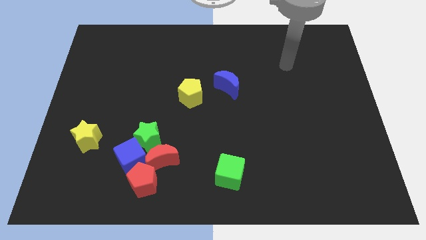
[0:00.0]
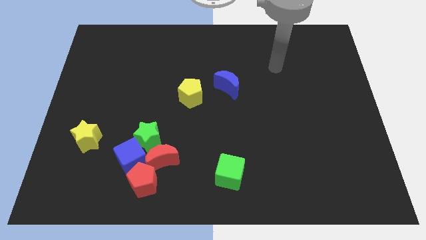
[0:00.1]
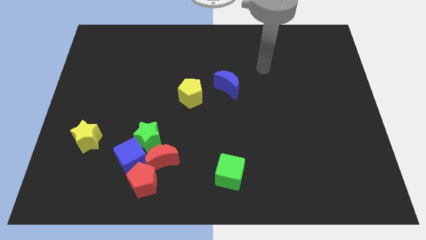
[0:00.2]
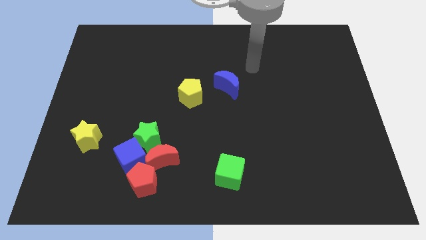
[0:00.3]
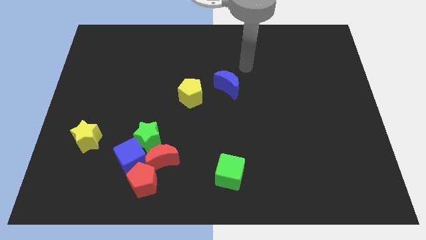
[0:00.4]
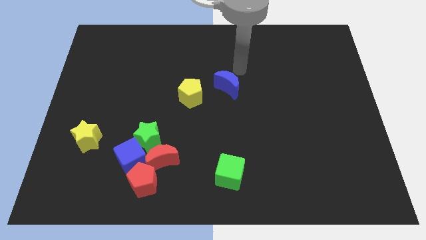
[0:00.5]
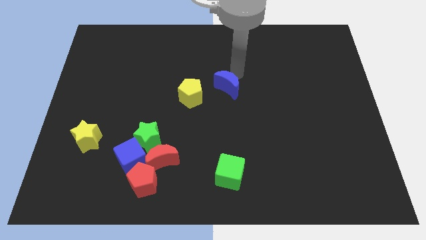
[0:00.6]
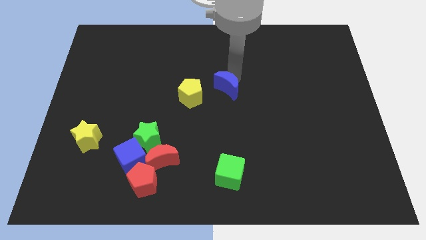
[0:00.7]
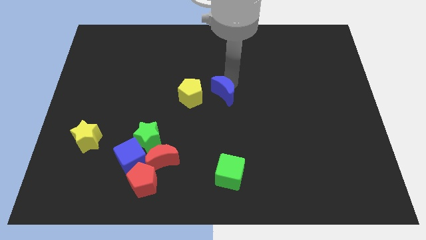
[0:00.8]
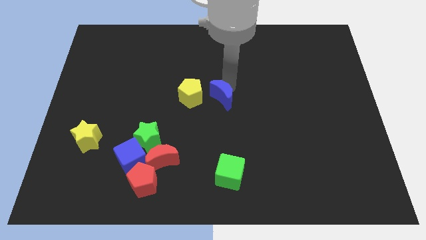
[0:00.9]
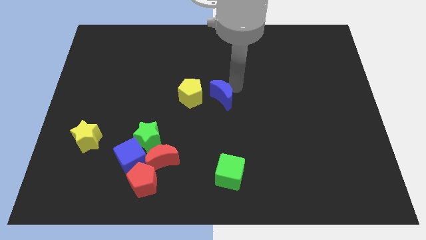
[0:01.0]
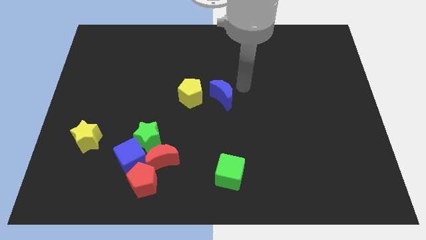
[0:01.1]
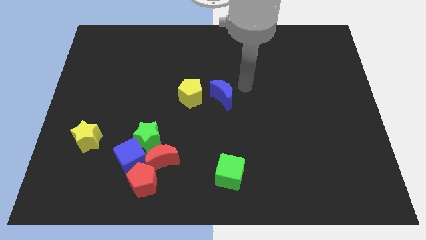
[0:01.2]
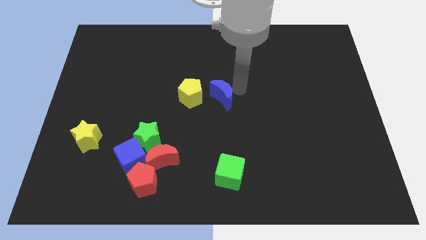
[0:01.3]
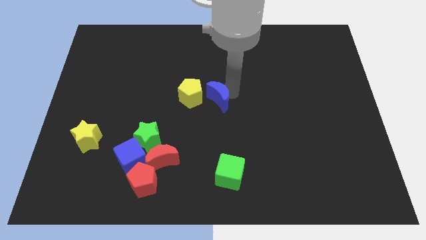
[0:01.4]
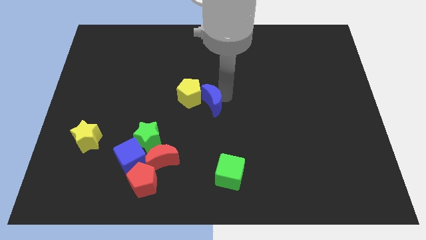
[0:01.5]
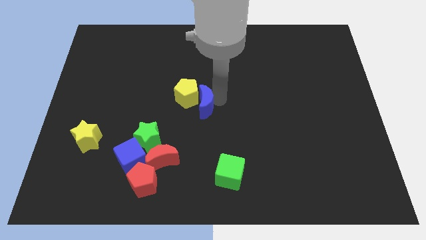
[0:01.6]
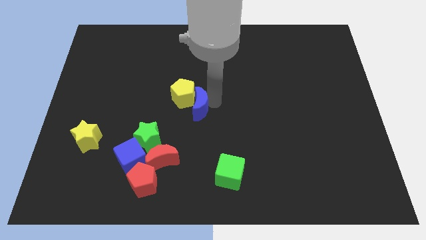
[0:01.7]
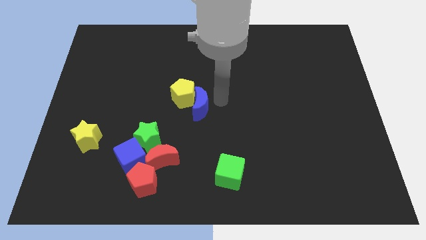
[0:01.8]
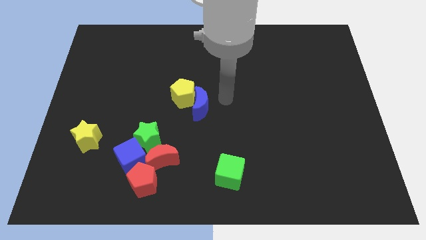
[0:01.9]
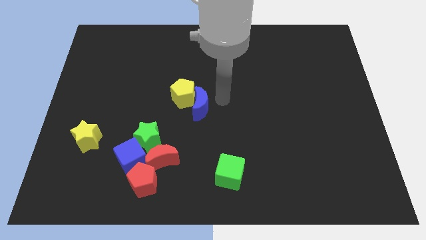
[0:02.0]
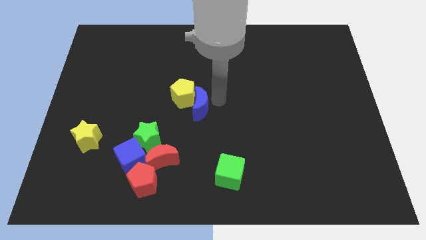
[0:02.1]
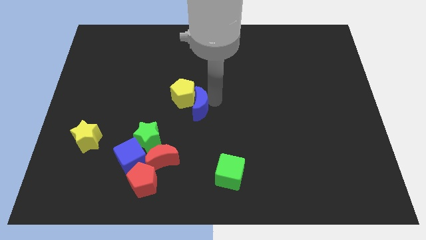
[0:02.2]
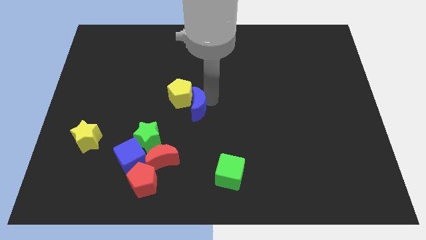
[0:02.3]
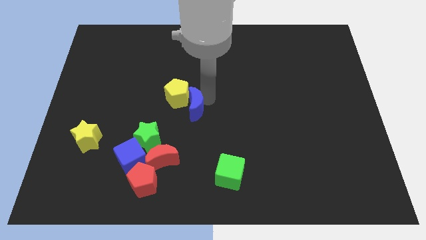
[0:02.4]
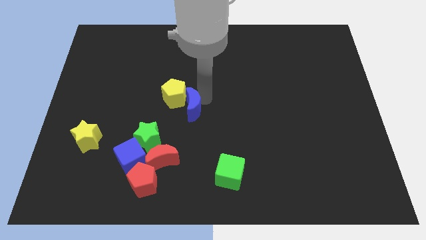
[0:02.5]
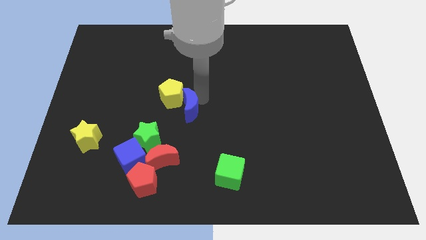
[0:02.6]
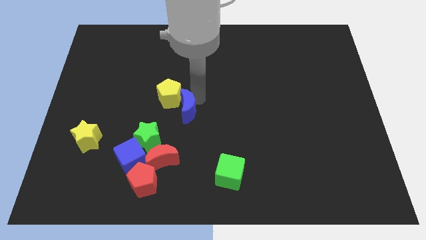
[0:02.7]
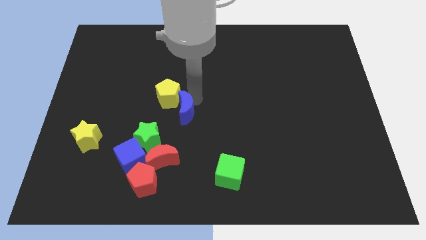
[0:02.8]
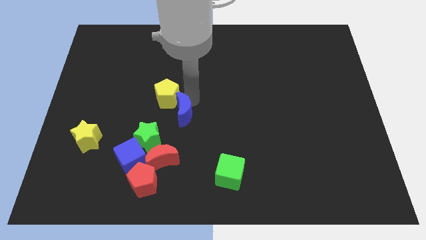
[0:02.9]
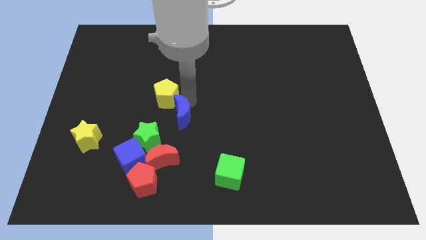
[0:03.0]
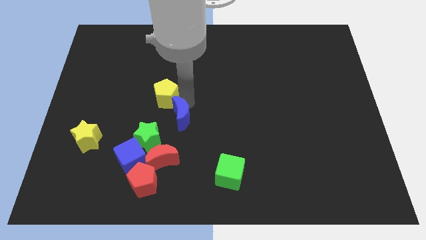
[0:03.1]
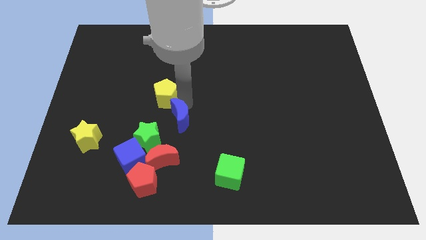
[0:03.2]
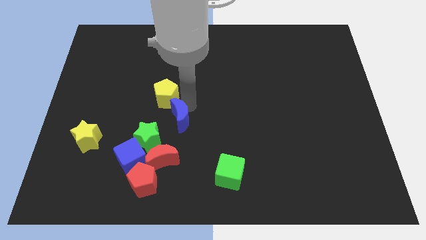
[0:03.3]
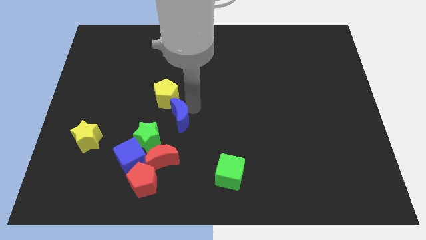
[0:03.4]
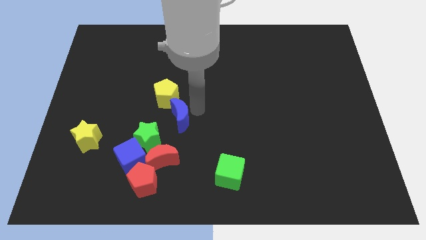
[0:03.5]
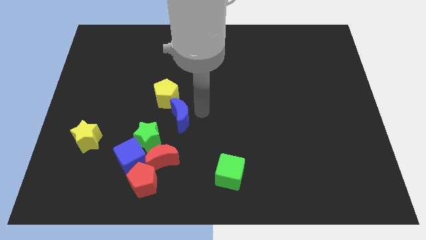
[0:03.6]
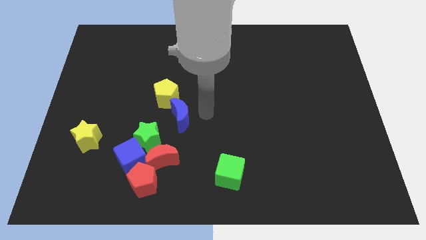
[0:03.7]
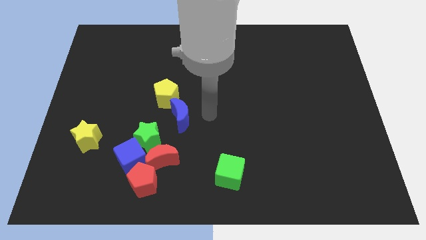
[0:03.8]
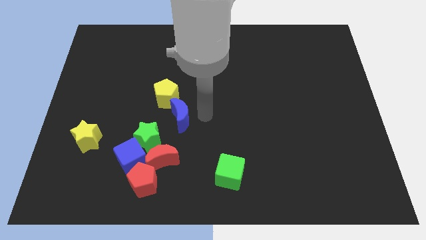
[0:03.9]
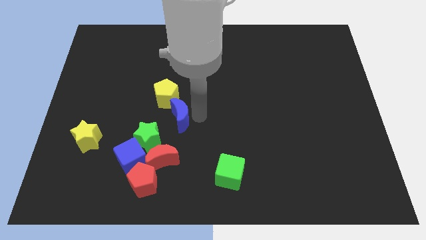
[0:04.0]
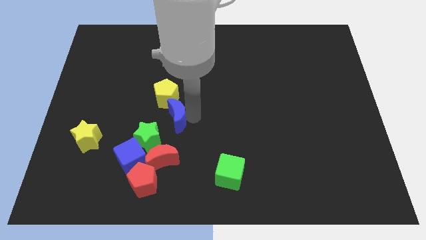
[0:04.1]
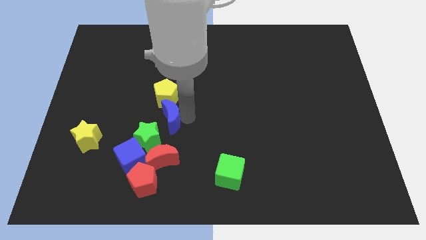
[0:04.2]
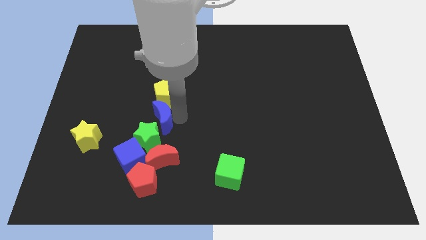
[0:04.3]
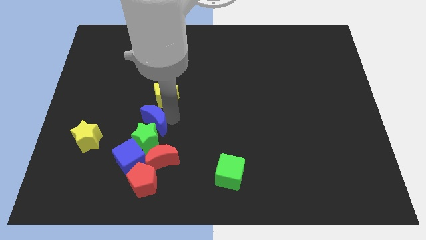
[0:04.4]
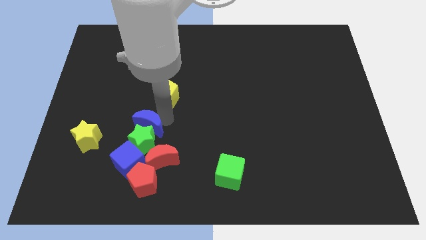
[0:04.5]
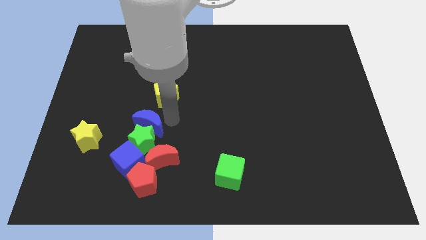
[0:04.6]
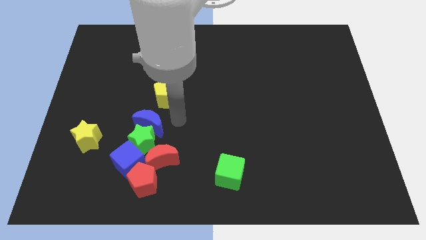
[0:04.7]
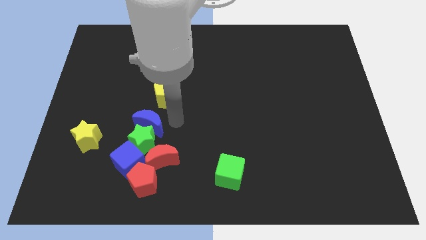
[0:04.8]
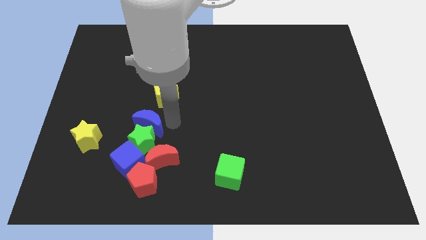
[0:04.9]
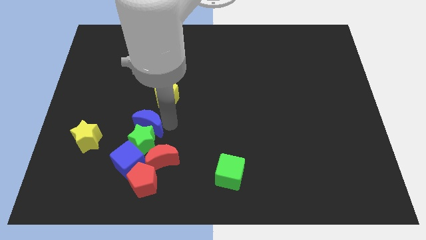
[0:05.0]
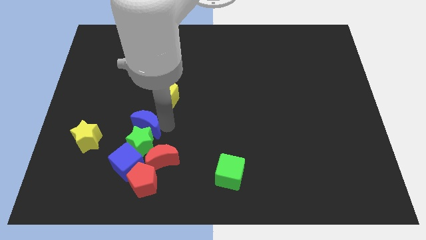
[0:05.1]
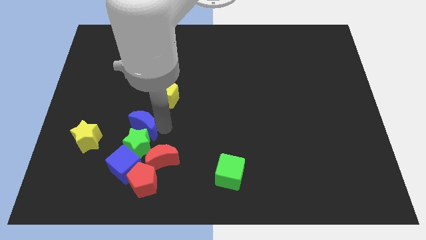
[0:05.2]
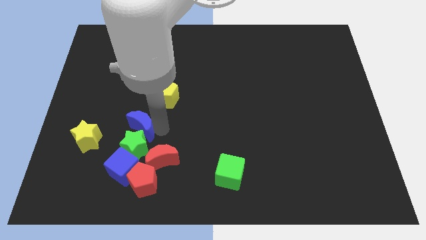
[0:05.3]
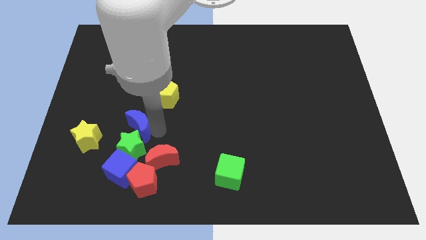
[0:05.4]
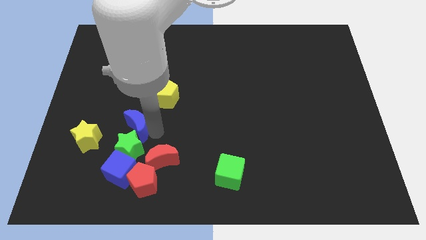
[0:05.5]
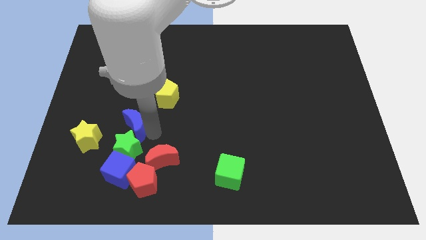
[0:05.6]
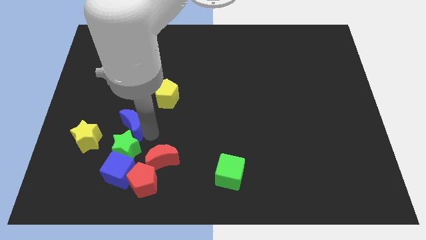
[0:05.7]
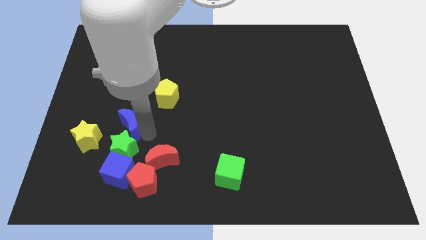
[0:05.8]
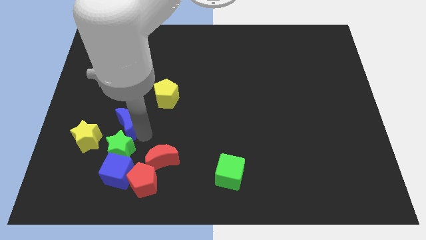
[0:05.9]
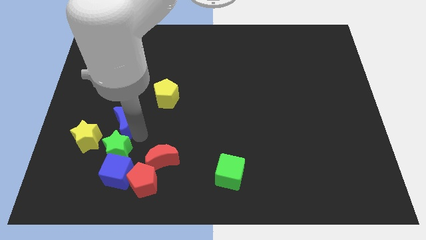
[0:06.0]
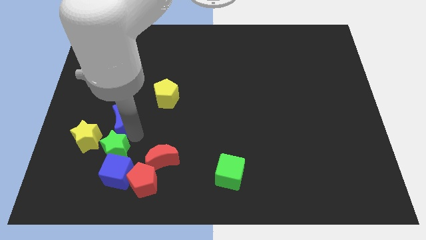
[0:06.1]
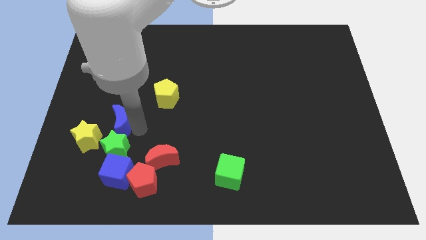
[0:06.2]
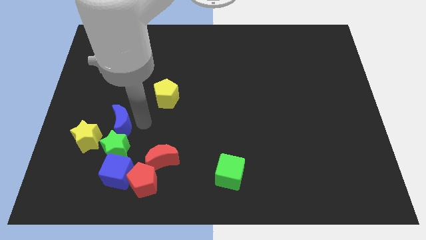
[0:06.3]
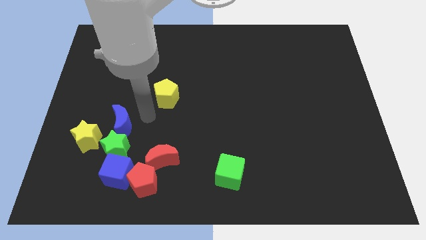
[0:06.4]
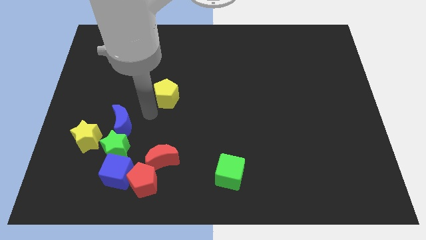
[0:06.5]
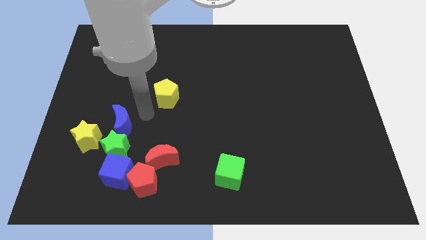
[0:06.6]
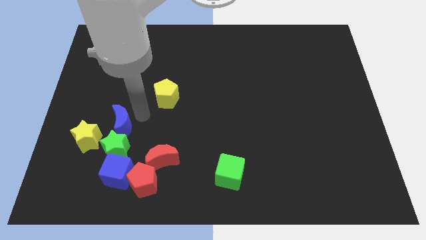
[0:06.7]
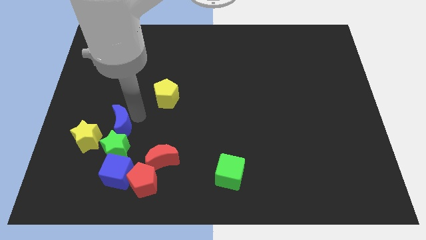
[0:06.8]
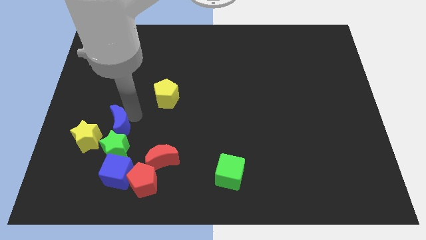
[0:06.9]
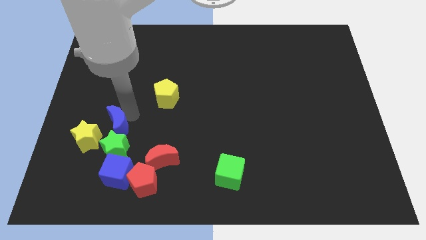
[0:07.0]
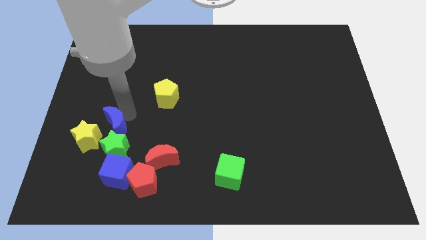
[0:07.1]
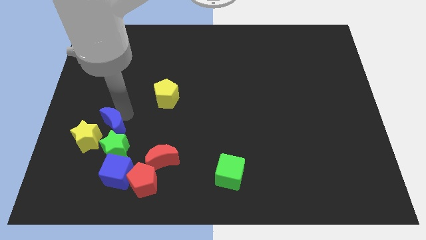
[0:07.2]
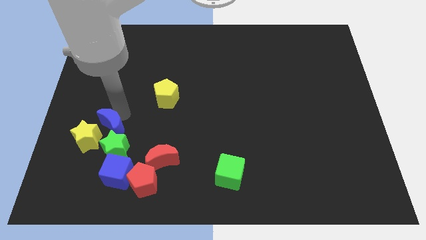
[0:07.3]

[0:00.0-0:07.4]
slide the blue moon next to the yellow star
